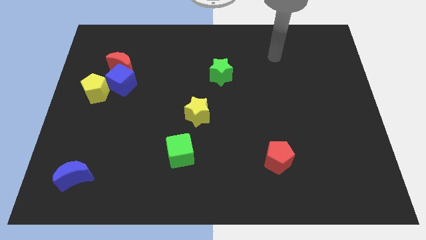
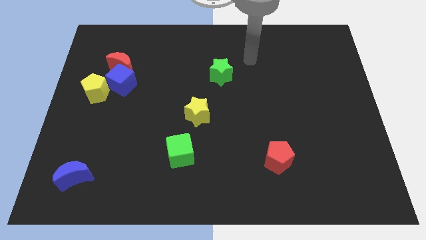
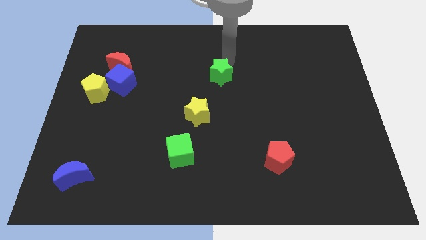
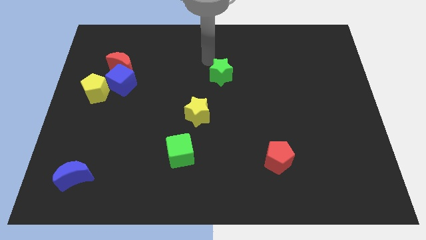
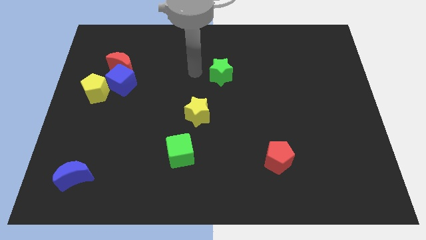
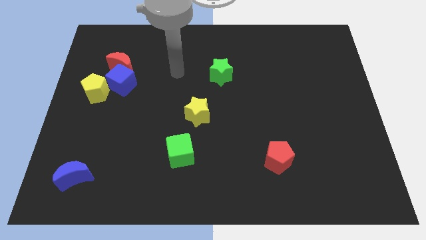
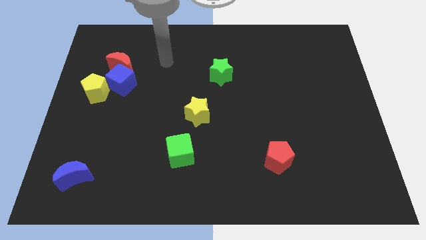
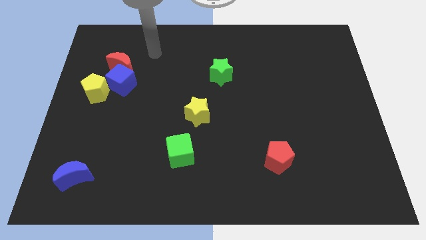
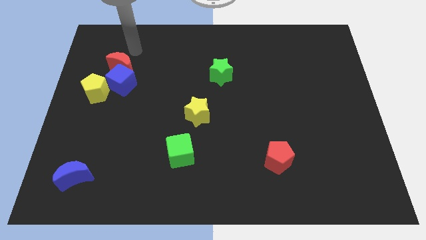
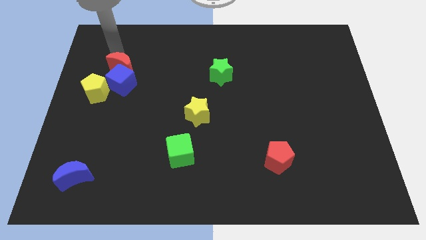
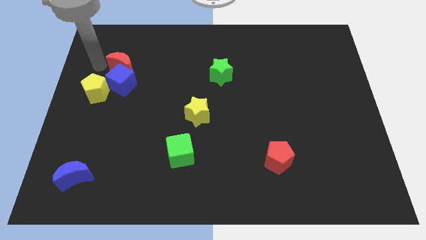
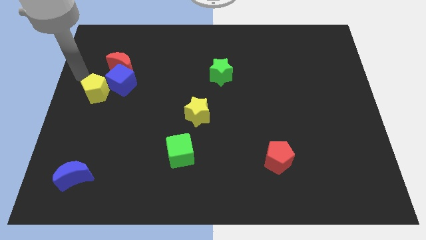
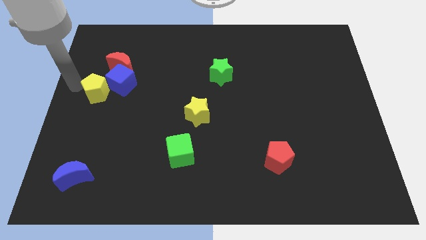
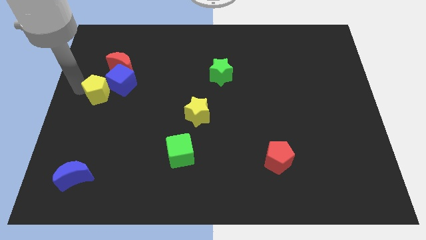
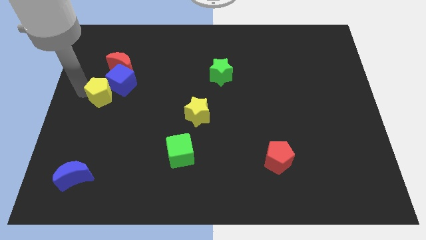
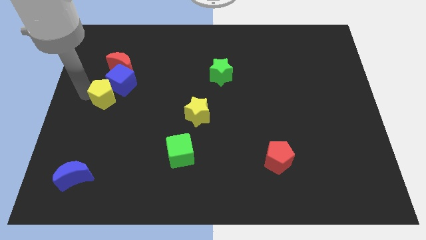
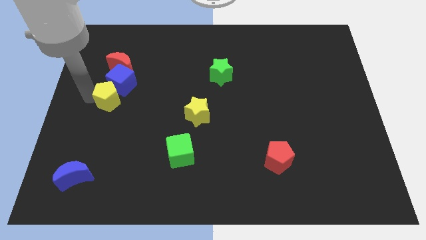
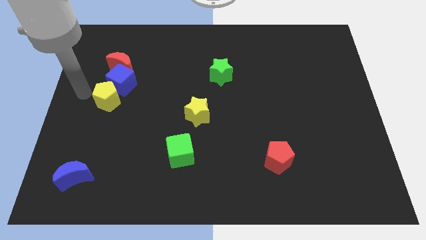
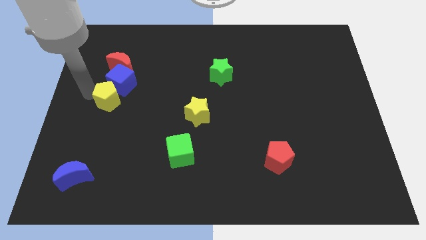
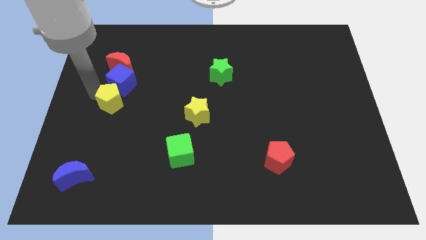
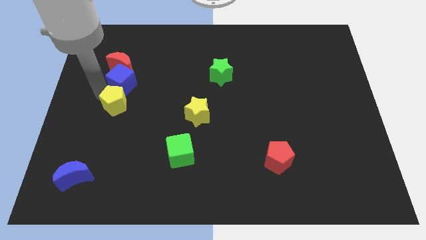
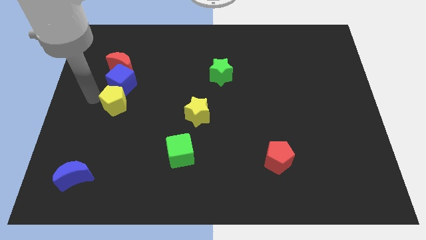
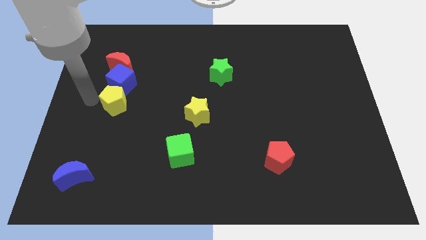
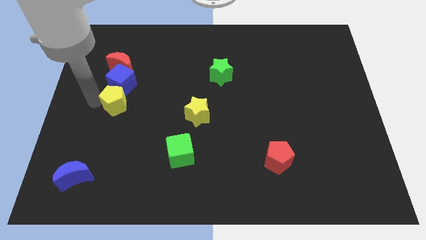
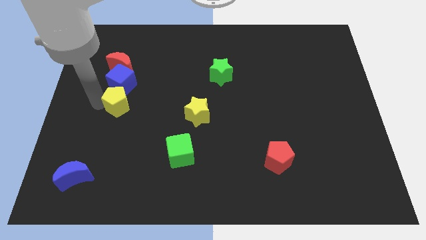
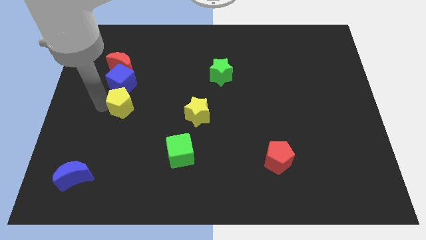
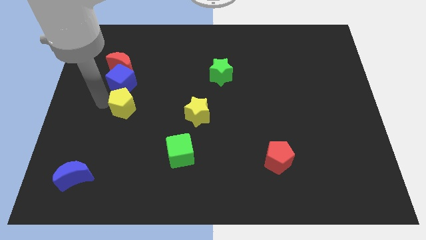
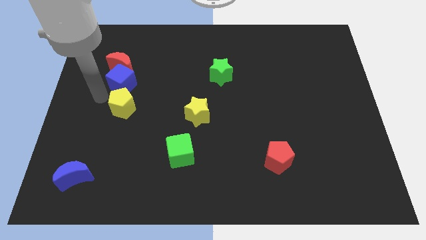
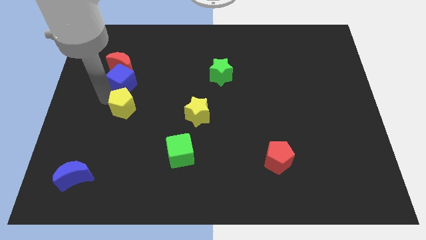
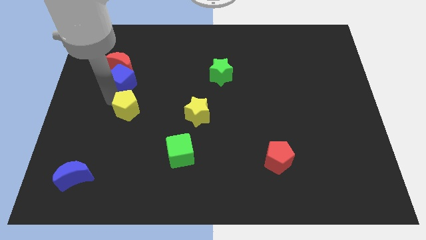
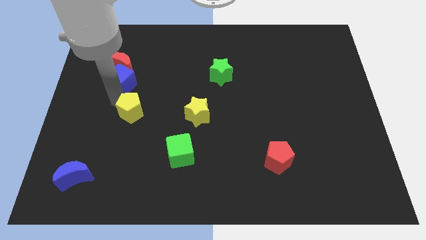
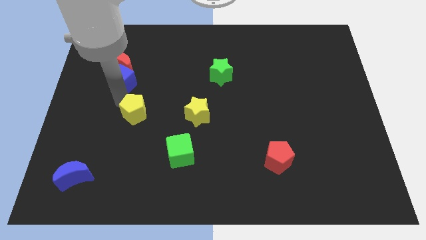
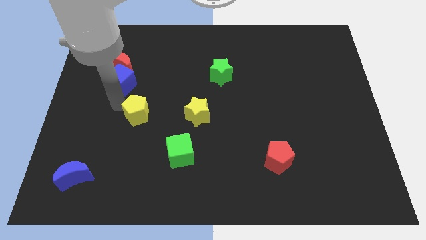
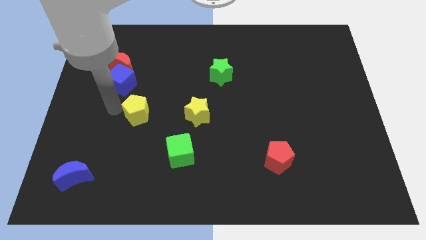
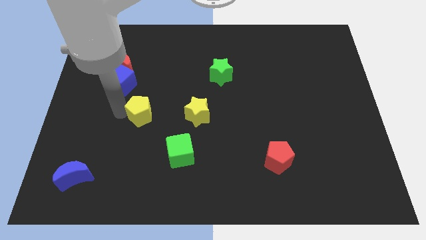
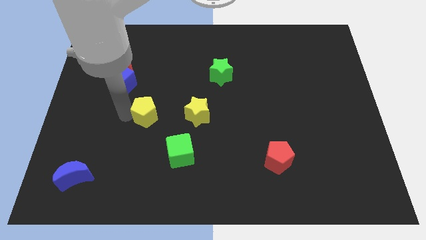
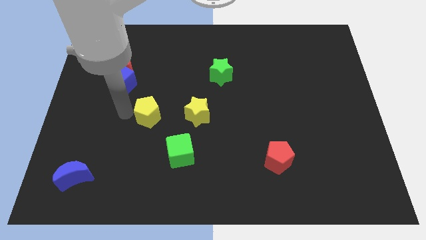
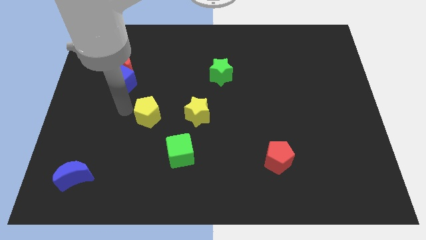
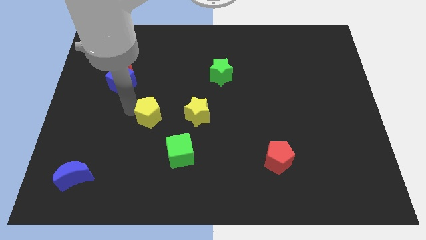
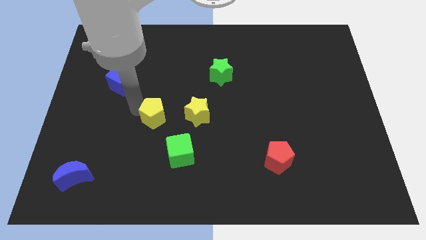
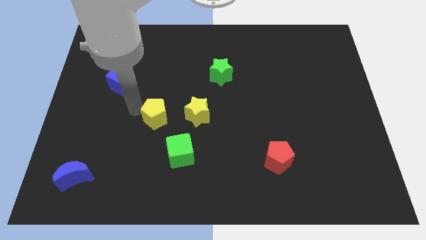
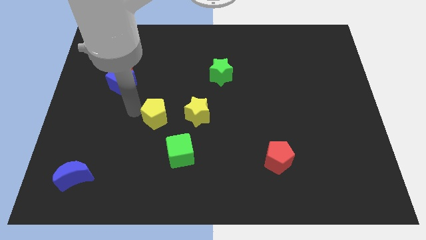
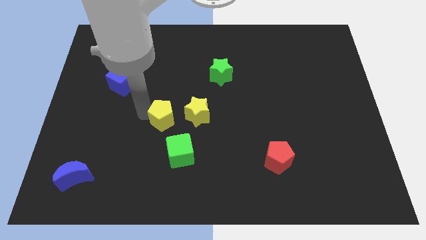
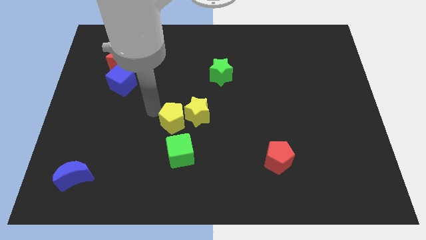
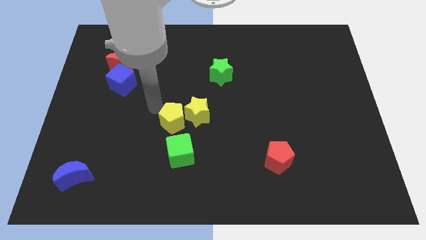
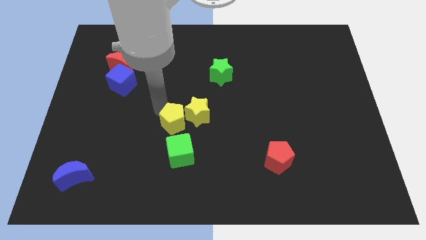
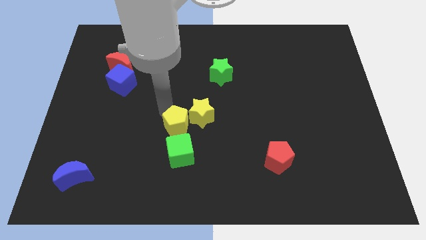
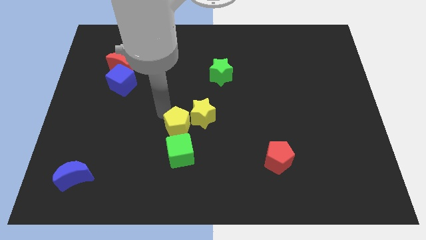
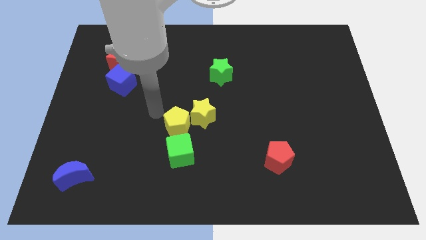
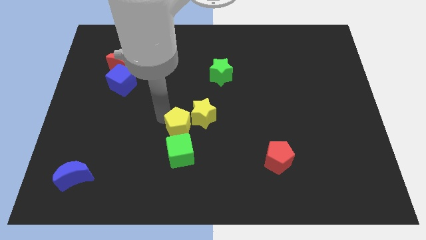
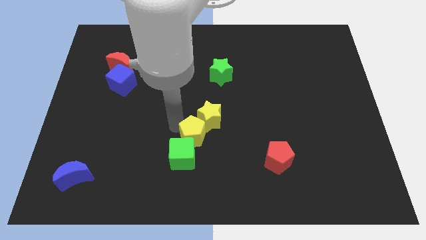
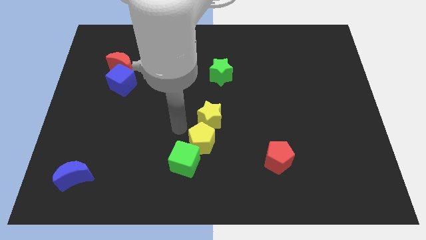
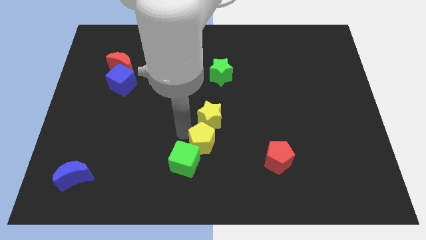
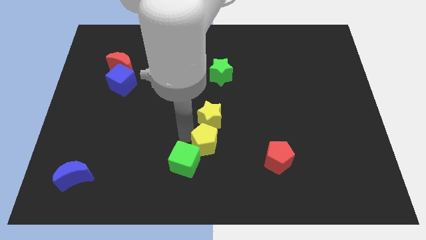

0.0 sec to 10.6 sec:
push the yellow pentagon to the right side of the green cube

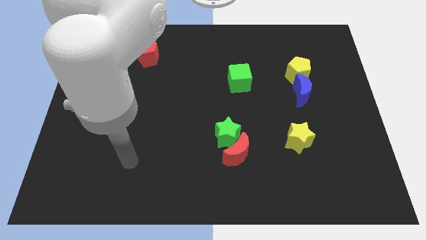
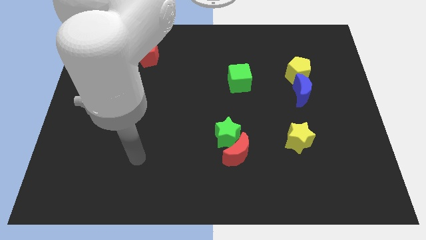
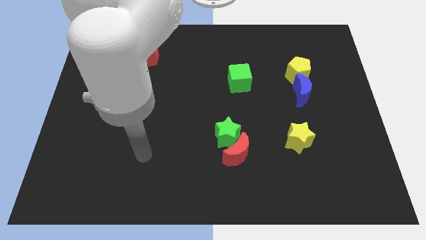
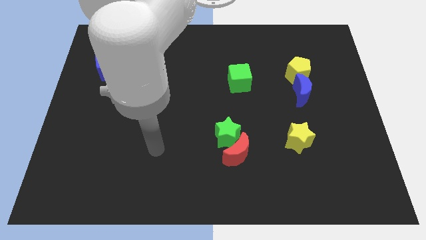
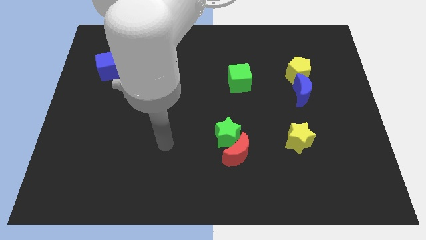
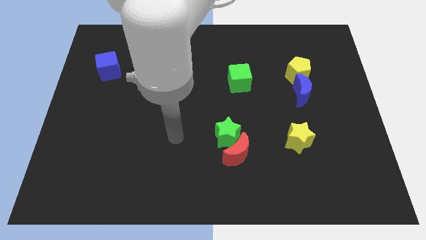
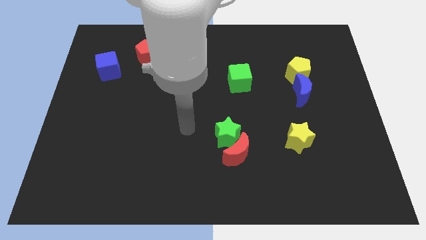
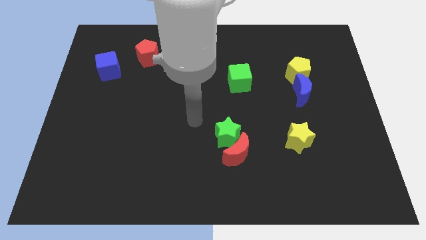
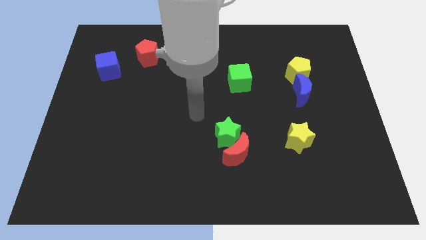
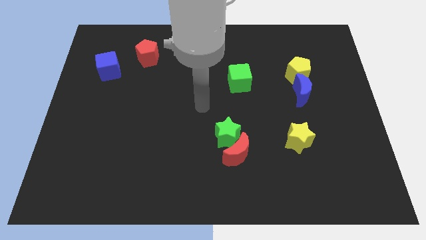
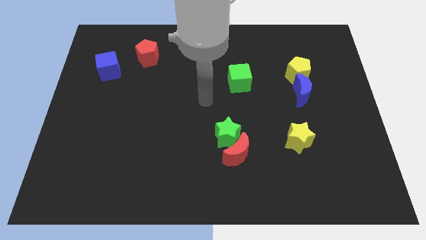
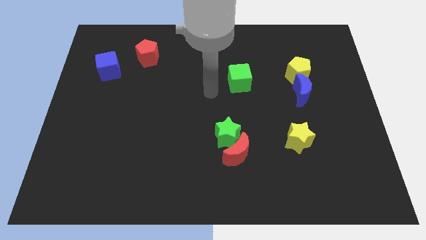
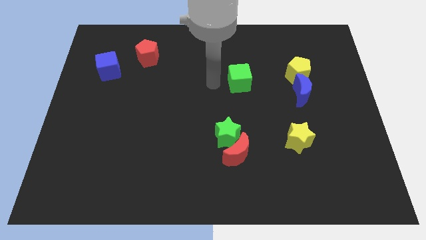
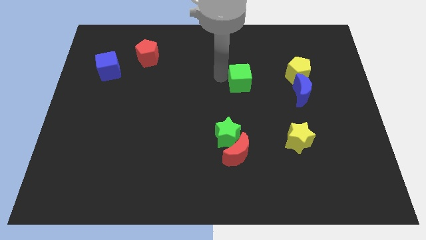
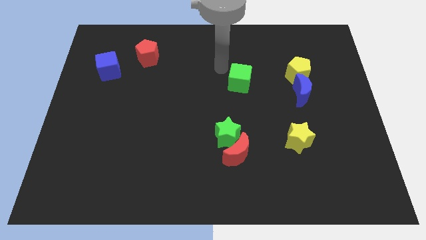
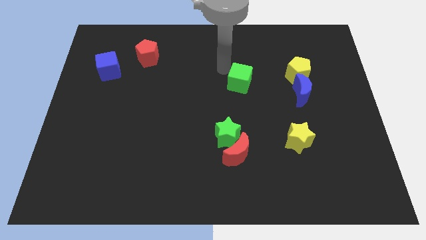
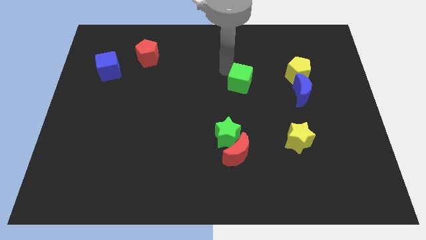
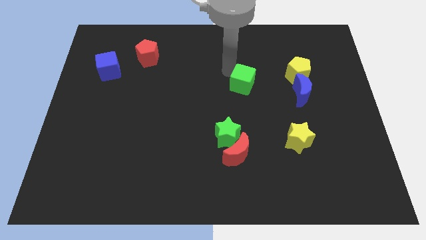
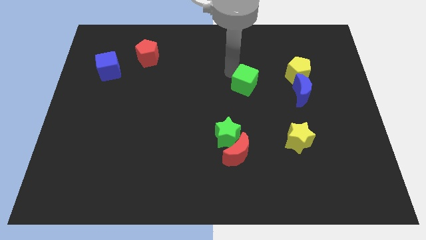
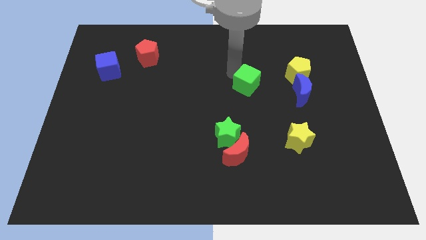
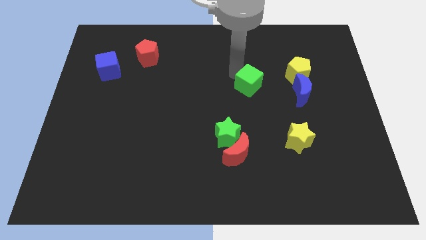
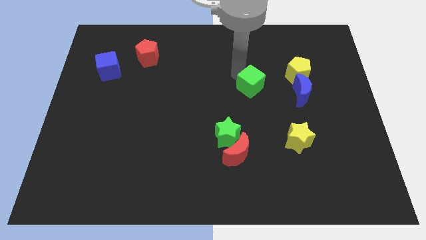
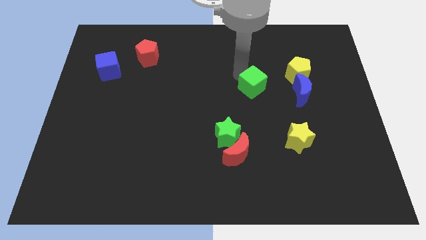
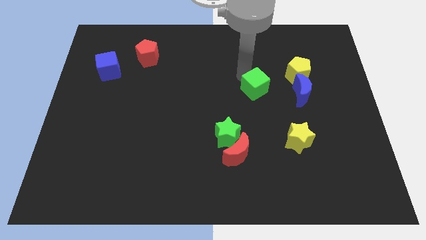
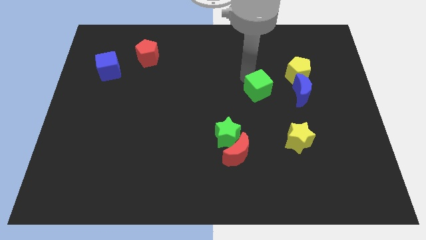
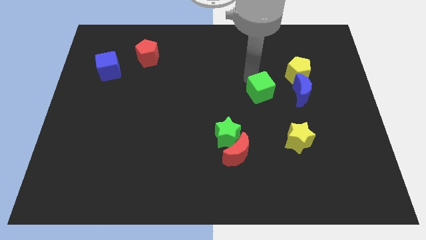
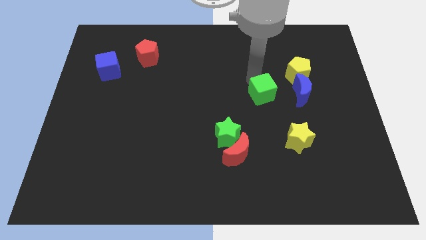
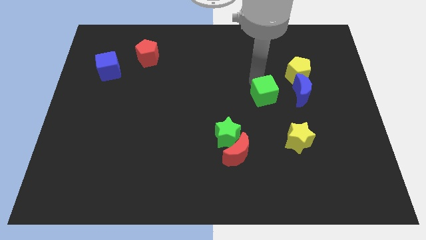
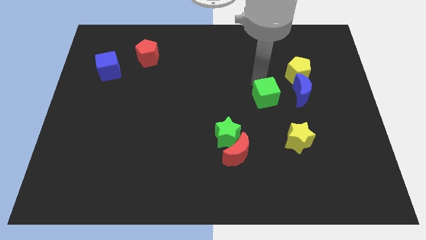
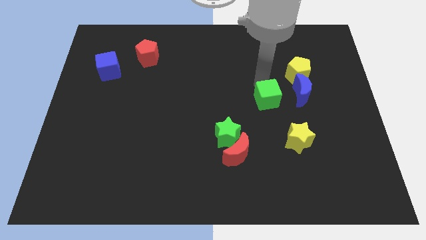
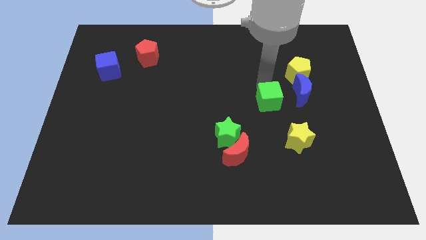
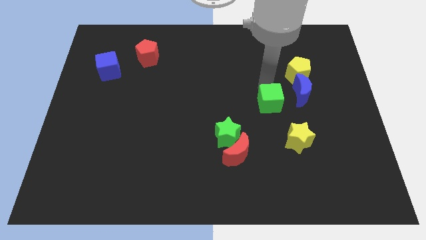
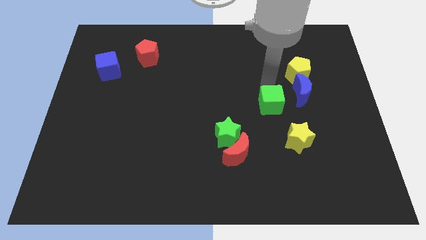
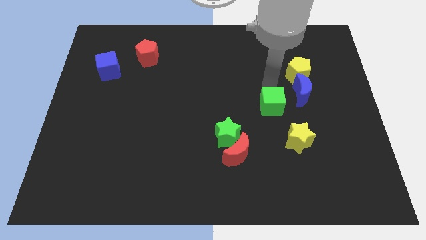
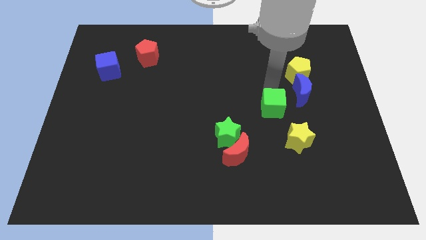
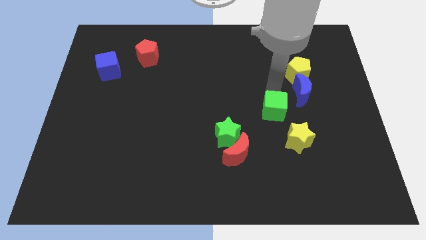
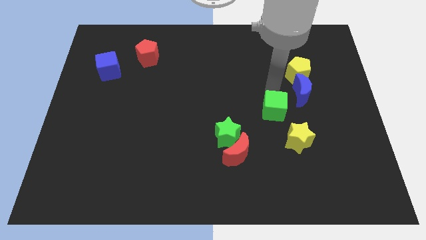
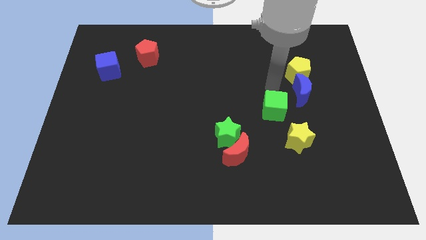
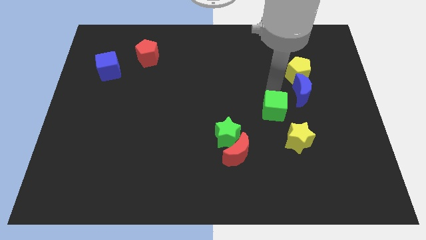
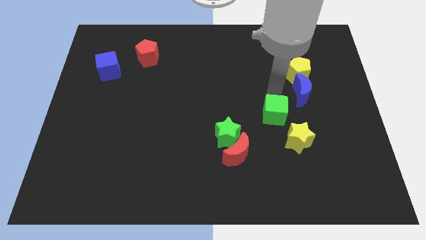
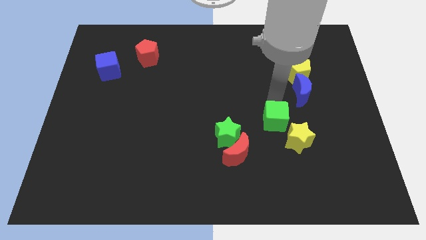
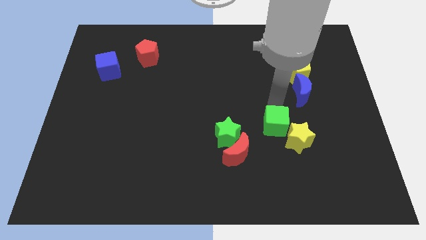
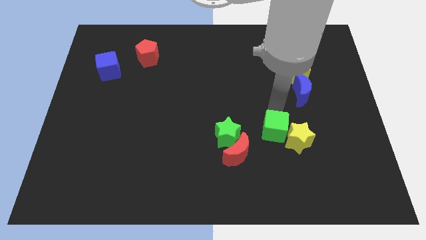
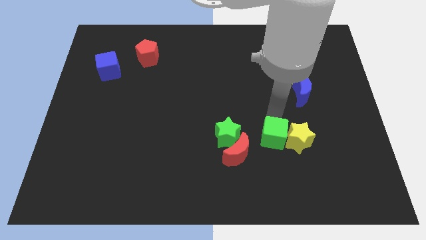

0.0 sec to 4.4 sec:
slide the green cube to the right of the red moon
